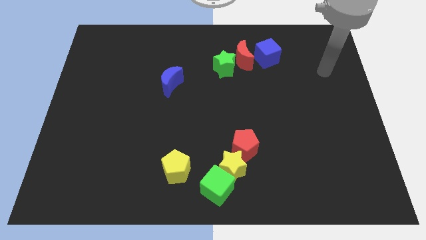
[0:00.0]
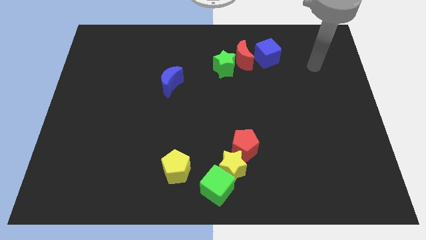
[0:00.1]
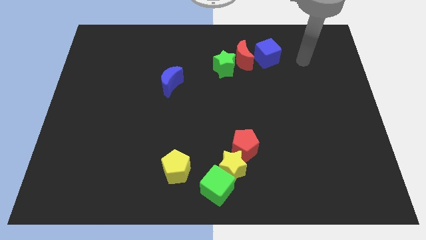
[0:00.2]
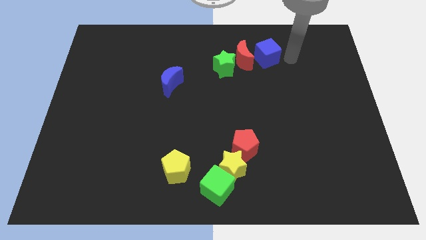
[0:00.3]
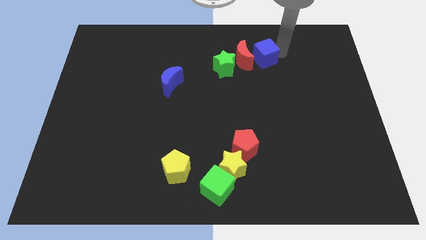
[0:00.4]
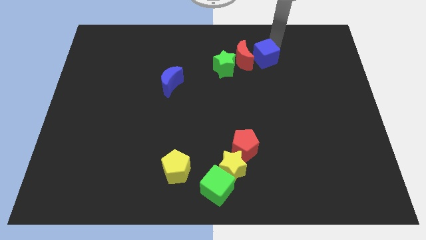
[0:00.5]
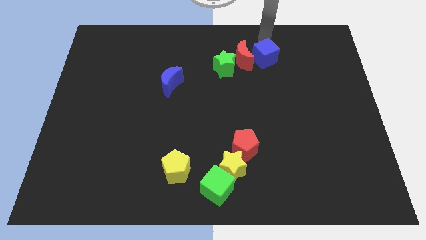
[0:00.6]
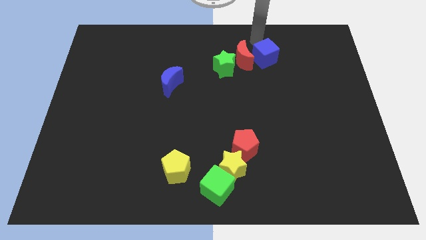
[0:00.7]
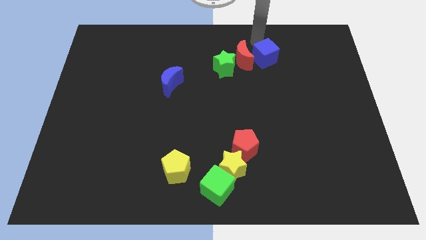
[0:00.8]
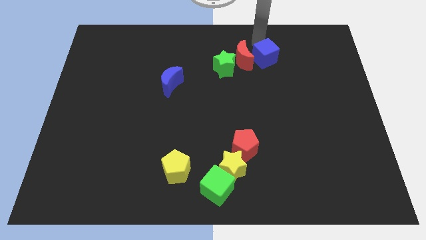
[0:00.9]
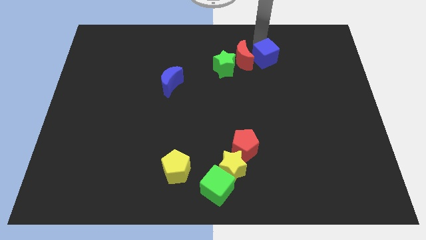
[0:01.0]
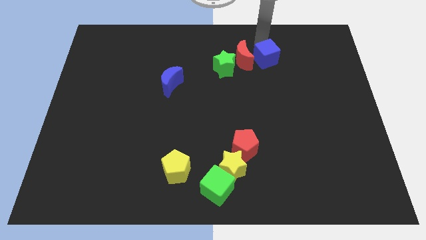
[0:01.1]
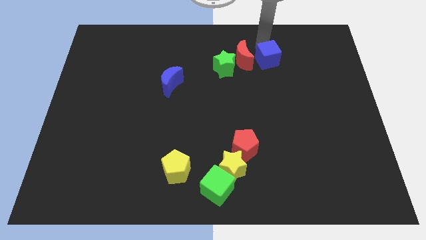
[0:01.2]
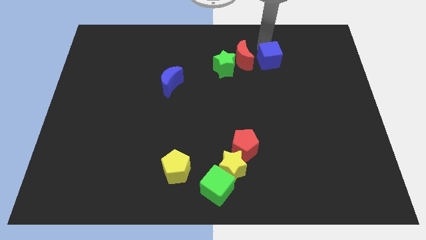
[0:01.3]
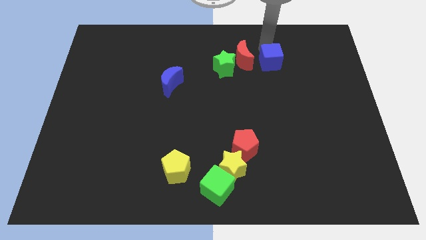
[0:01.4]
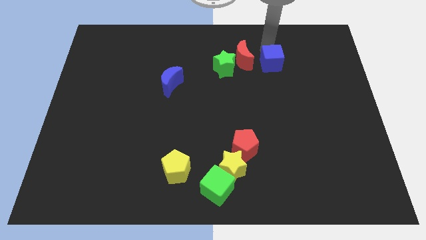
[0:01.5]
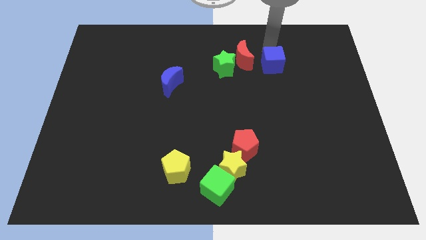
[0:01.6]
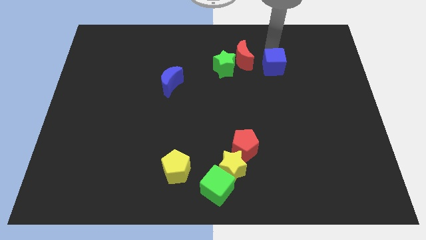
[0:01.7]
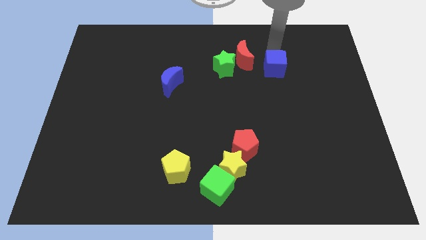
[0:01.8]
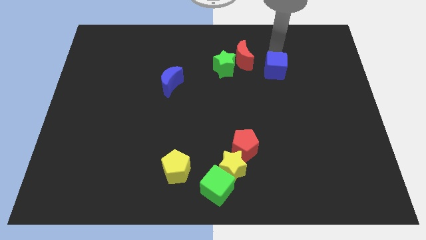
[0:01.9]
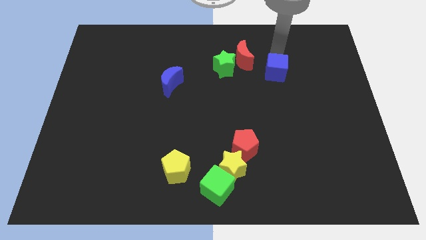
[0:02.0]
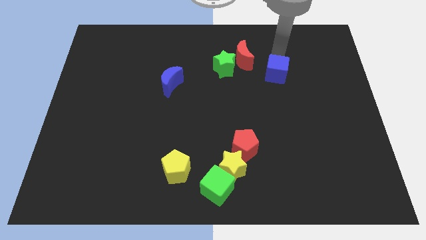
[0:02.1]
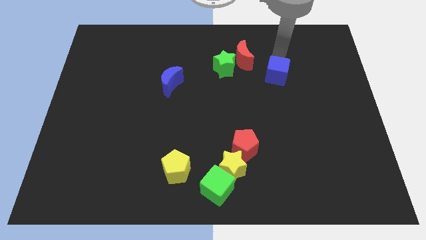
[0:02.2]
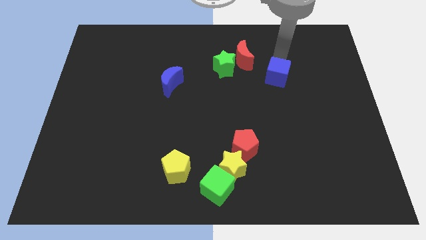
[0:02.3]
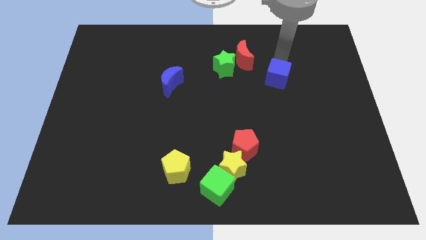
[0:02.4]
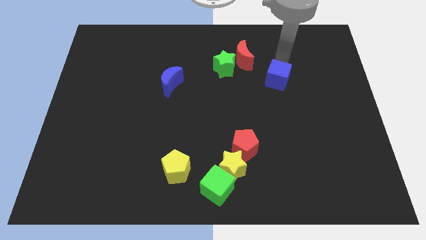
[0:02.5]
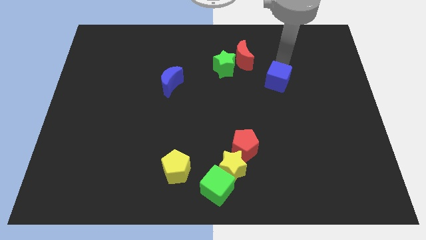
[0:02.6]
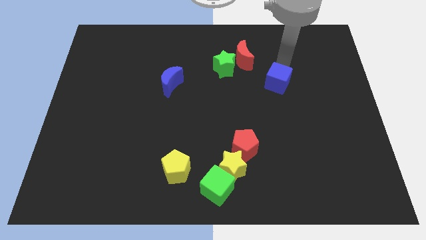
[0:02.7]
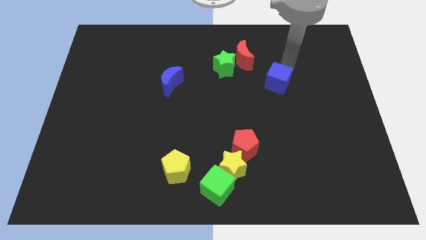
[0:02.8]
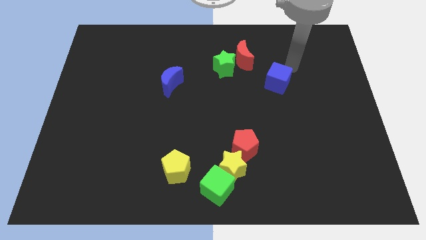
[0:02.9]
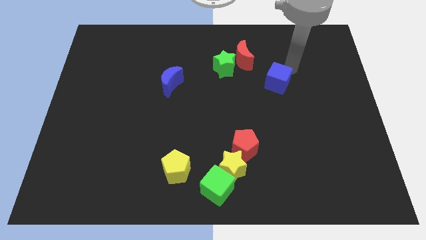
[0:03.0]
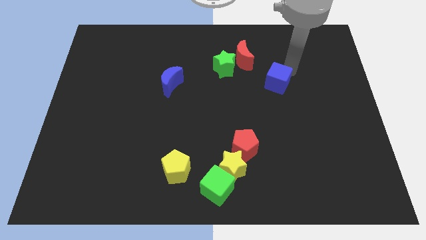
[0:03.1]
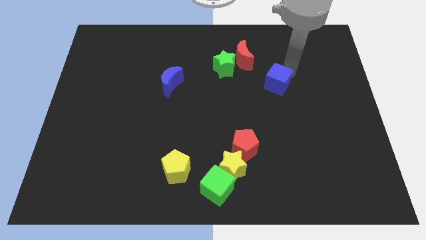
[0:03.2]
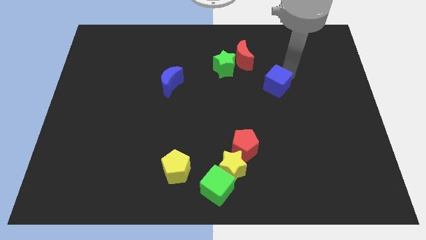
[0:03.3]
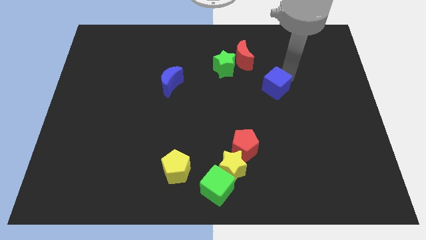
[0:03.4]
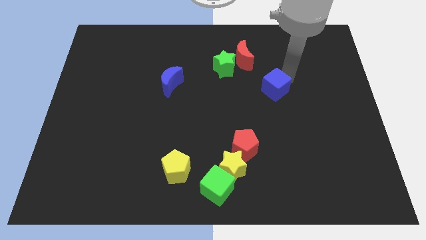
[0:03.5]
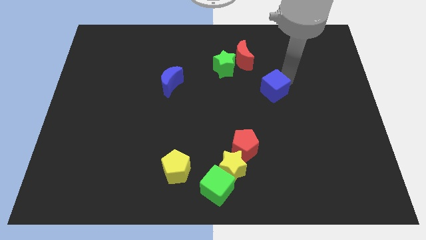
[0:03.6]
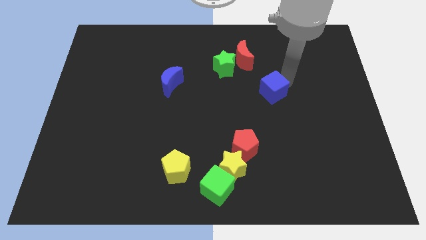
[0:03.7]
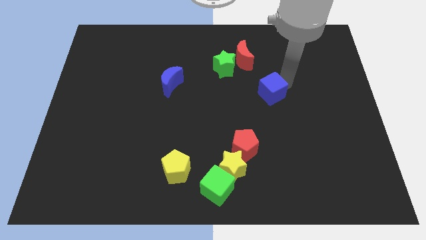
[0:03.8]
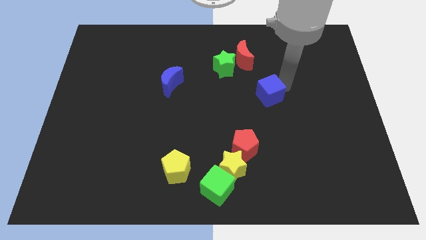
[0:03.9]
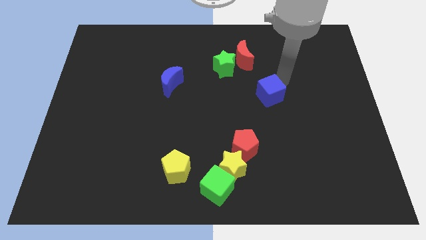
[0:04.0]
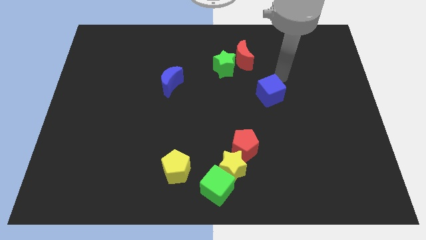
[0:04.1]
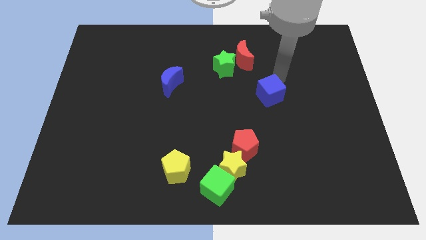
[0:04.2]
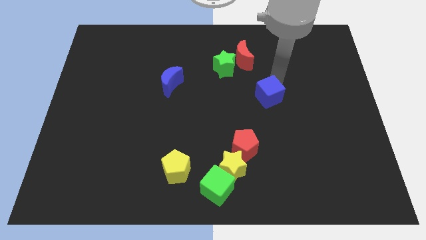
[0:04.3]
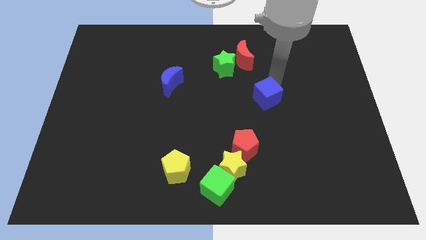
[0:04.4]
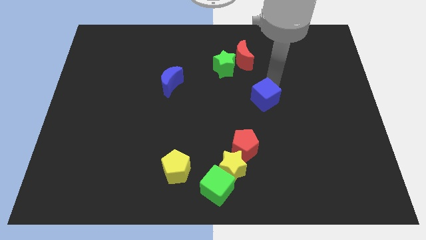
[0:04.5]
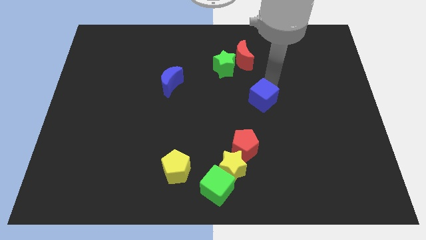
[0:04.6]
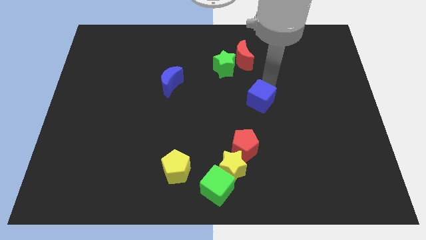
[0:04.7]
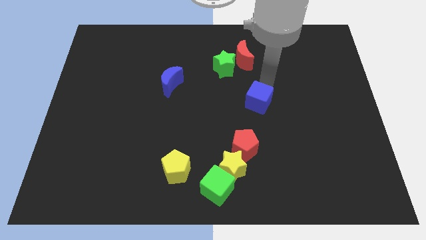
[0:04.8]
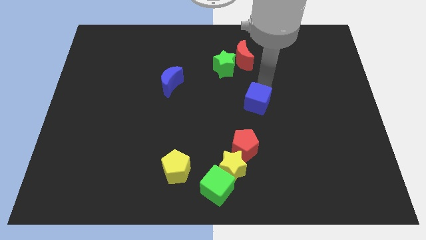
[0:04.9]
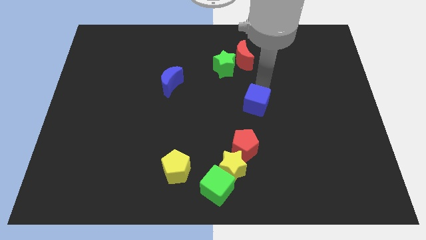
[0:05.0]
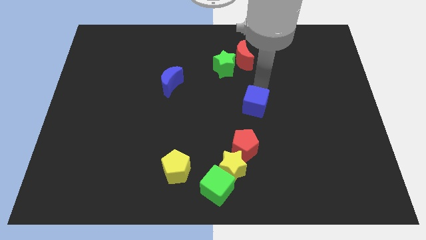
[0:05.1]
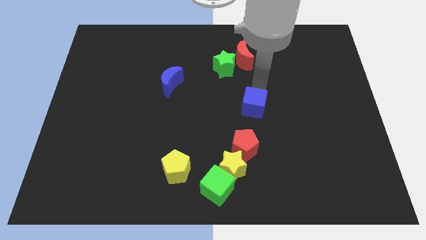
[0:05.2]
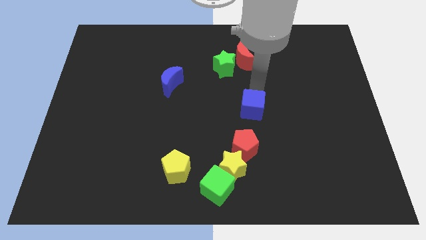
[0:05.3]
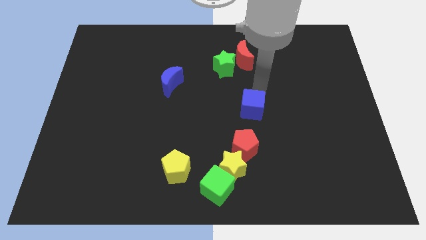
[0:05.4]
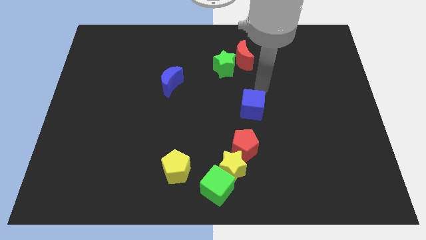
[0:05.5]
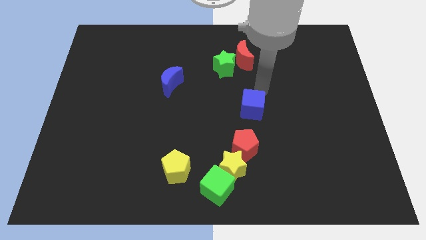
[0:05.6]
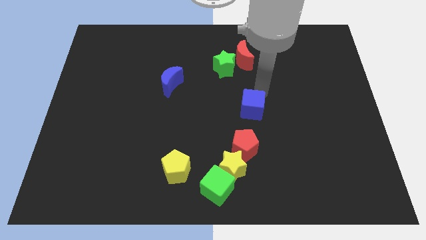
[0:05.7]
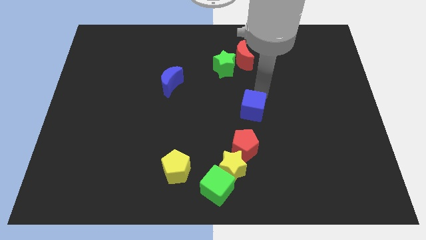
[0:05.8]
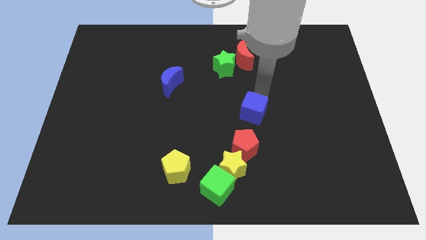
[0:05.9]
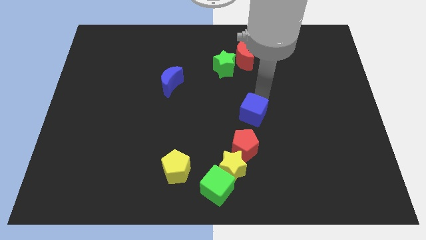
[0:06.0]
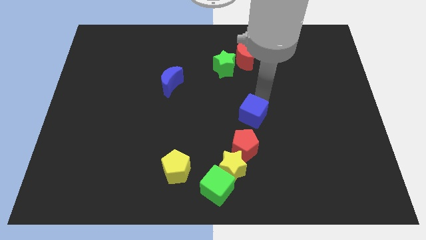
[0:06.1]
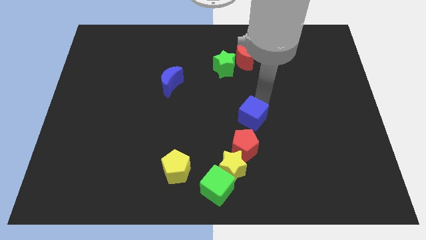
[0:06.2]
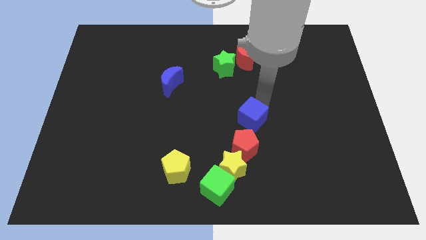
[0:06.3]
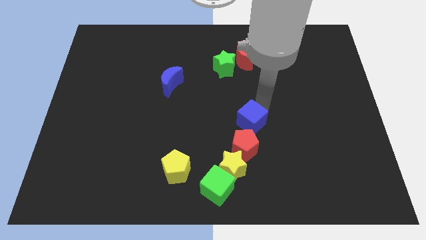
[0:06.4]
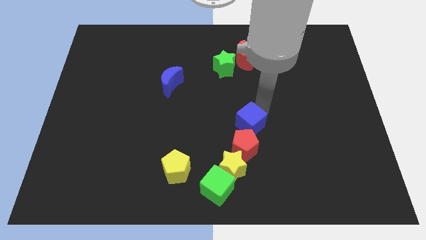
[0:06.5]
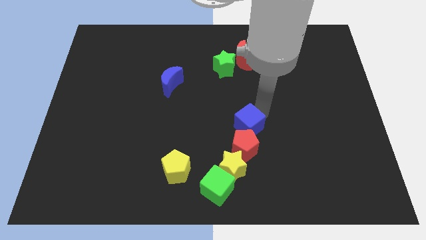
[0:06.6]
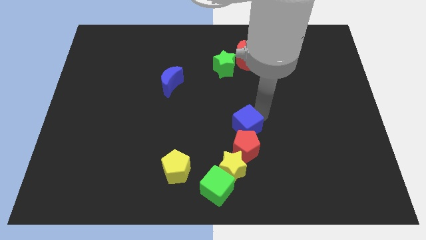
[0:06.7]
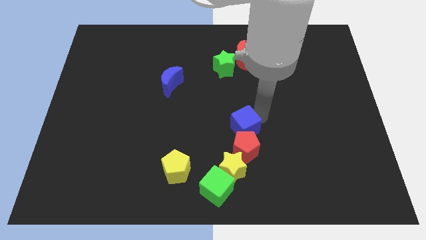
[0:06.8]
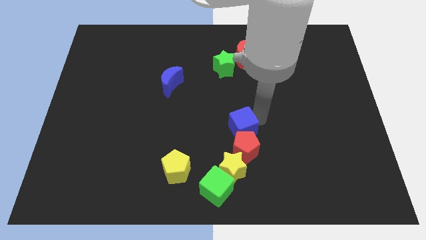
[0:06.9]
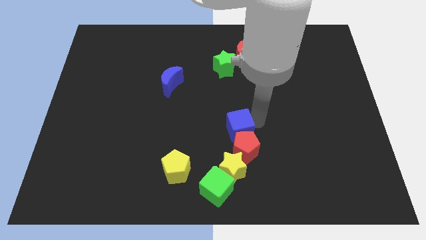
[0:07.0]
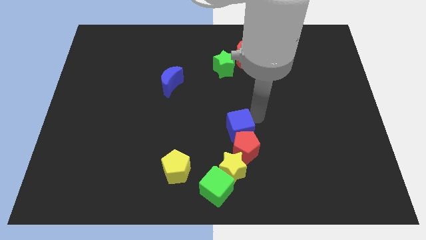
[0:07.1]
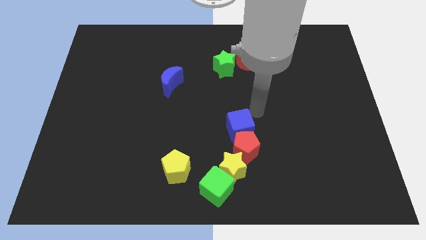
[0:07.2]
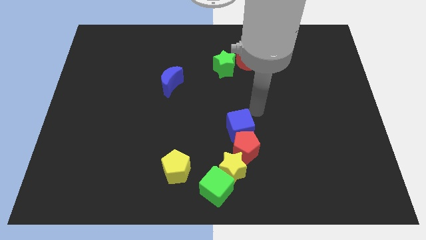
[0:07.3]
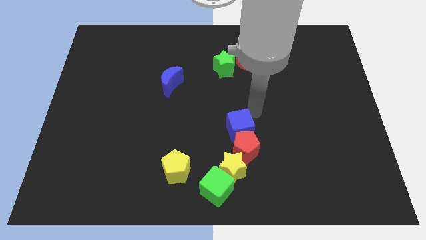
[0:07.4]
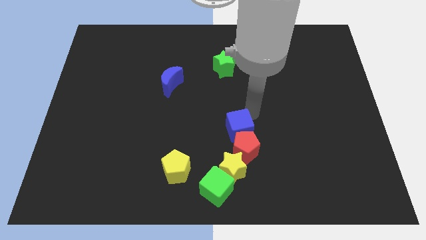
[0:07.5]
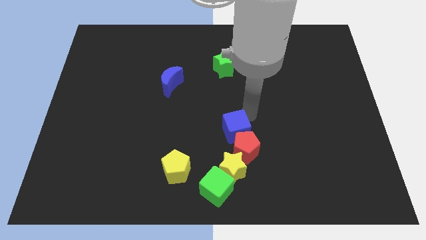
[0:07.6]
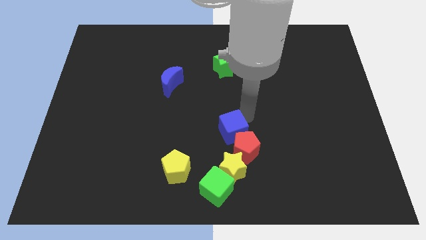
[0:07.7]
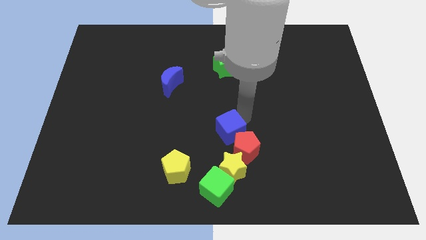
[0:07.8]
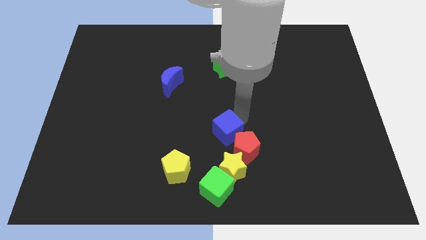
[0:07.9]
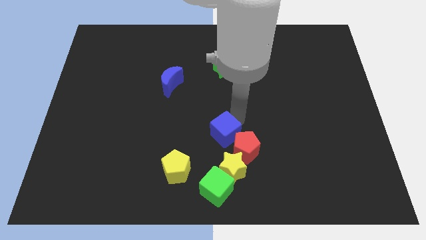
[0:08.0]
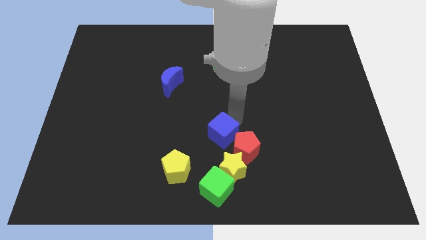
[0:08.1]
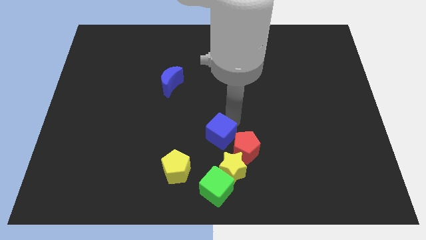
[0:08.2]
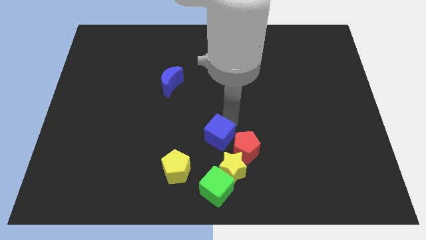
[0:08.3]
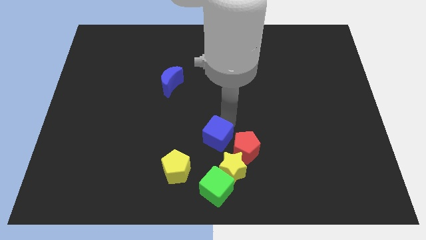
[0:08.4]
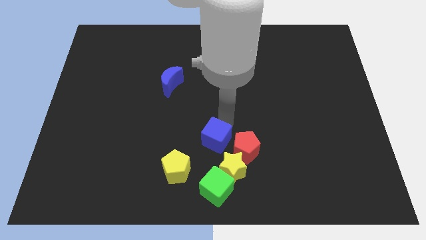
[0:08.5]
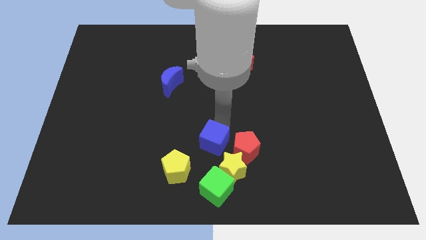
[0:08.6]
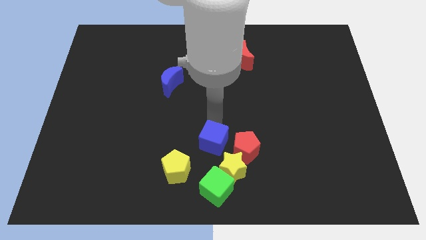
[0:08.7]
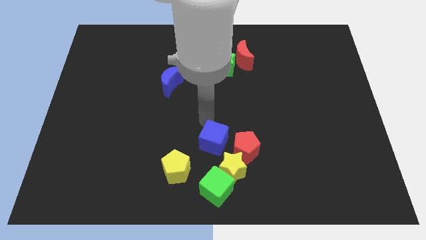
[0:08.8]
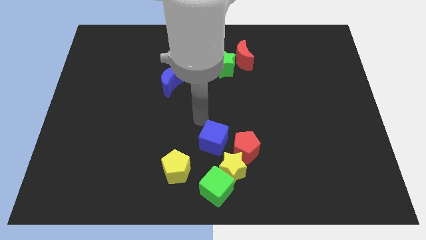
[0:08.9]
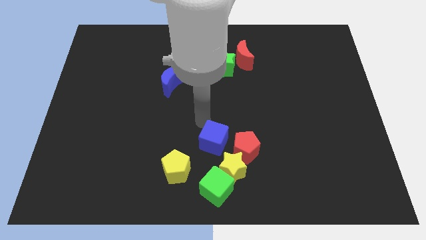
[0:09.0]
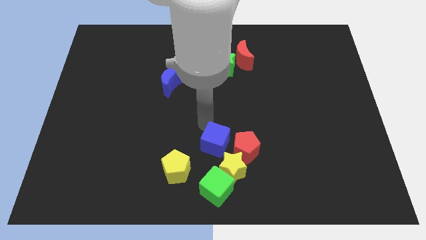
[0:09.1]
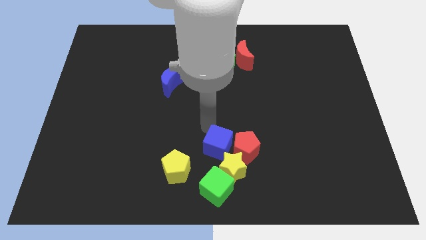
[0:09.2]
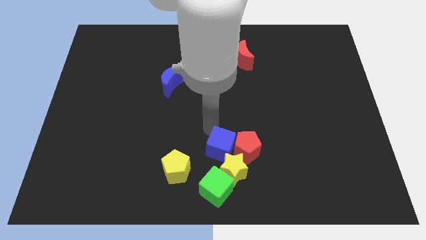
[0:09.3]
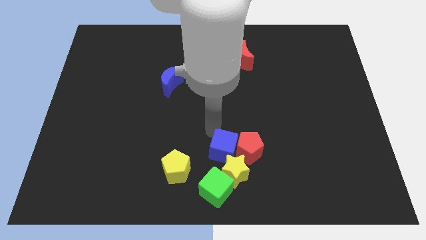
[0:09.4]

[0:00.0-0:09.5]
put the blue cube close to the yellow star
